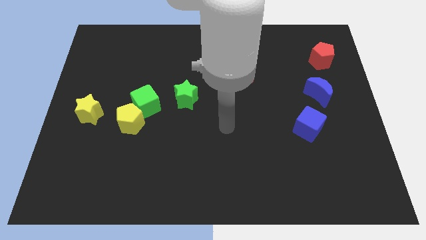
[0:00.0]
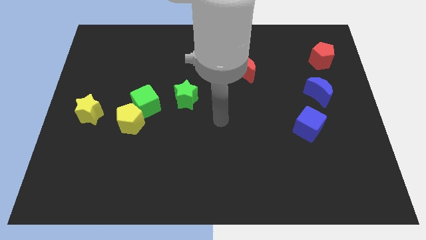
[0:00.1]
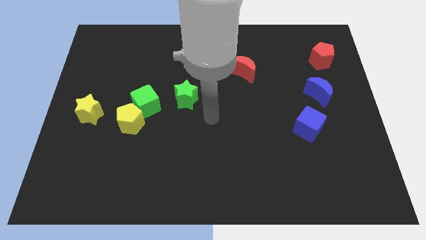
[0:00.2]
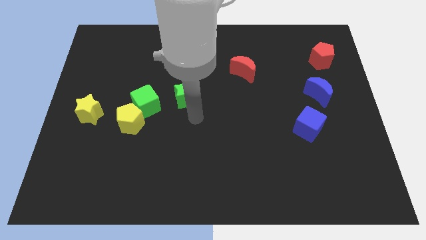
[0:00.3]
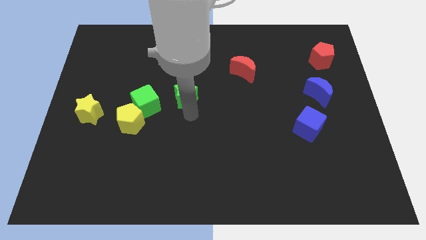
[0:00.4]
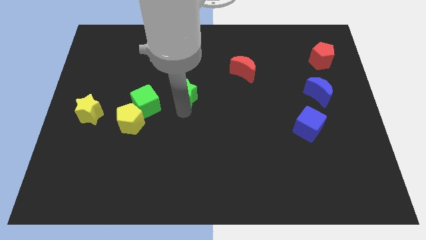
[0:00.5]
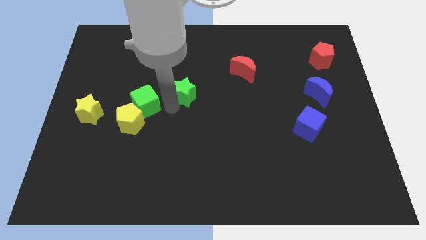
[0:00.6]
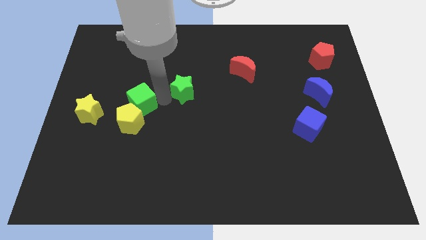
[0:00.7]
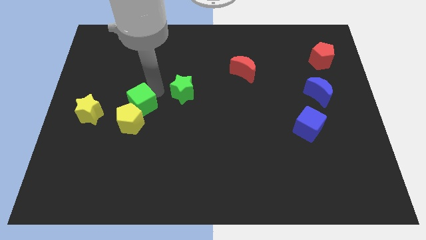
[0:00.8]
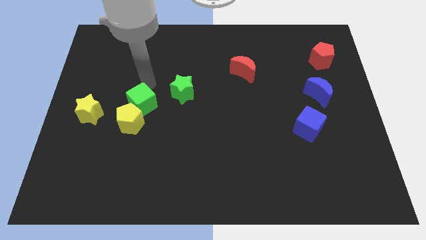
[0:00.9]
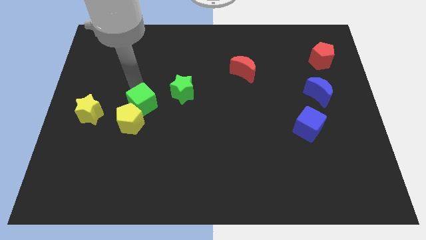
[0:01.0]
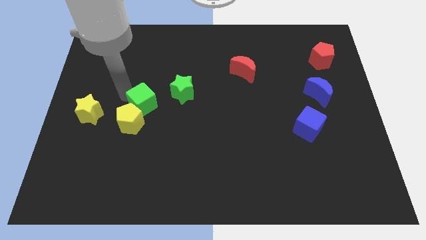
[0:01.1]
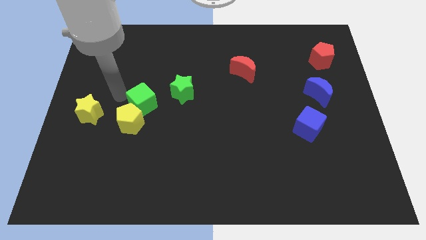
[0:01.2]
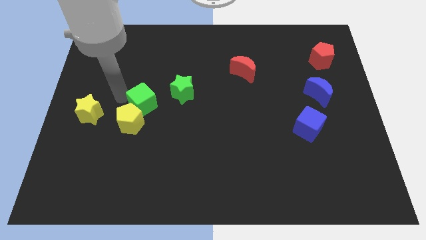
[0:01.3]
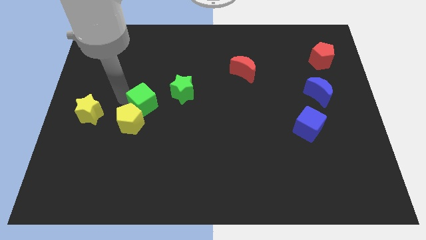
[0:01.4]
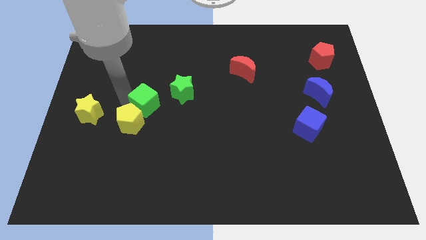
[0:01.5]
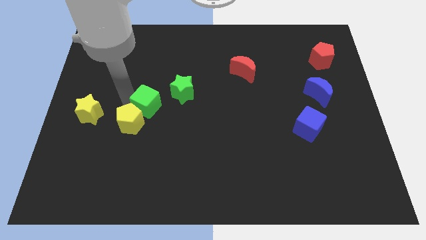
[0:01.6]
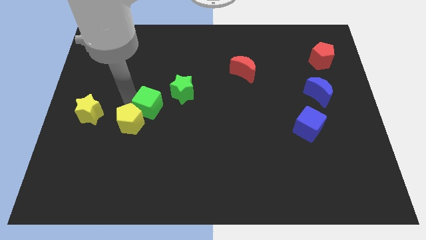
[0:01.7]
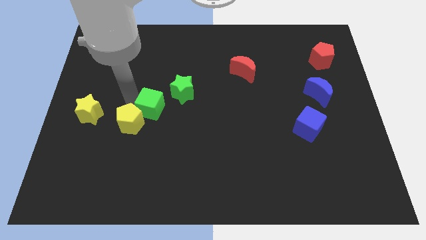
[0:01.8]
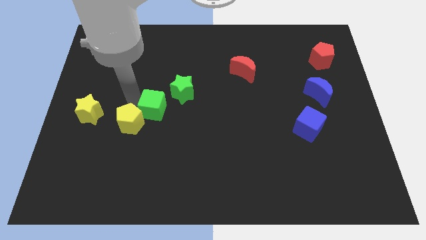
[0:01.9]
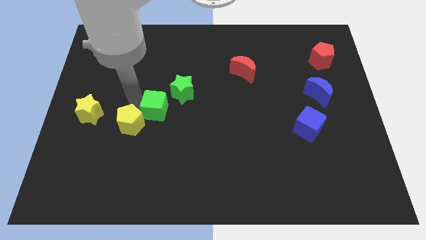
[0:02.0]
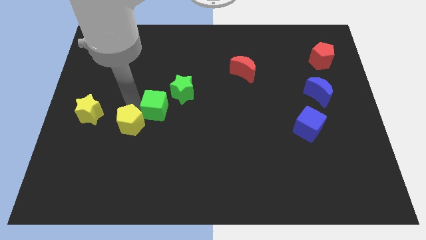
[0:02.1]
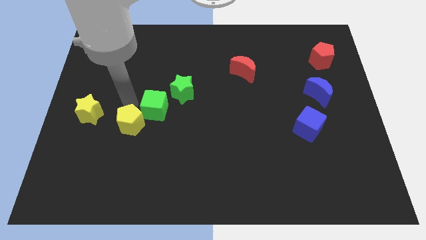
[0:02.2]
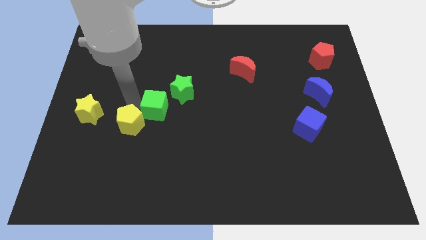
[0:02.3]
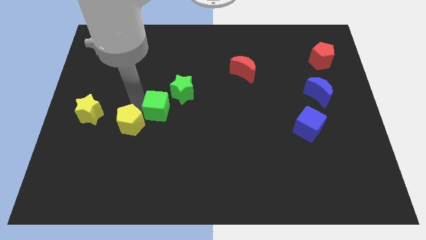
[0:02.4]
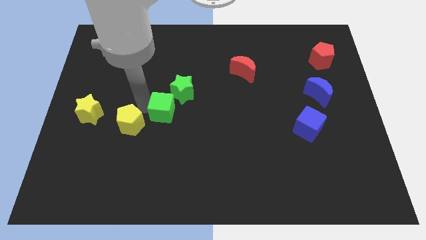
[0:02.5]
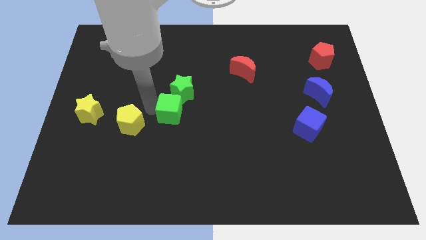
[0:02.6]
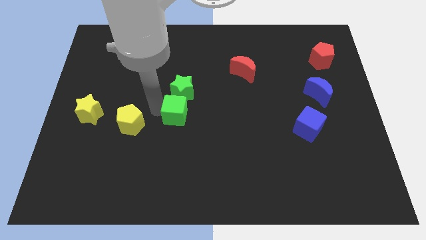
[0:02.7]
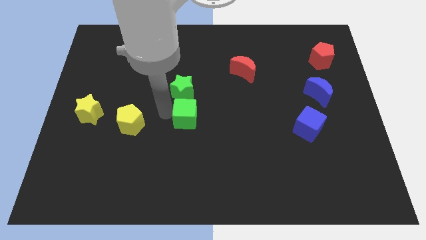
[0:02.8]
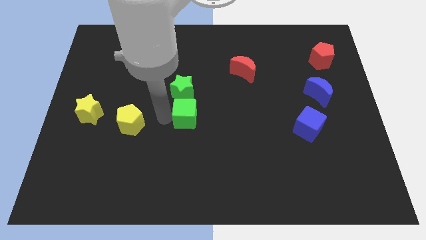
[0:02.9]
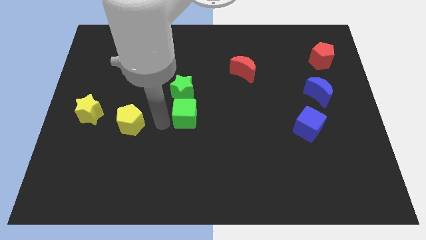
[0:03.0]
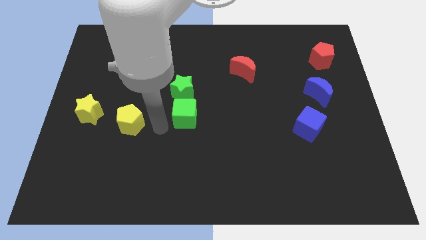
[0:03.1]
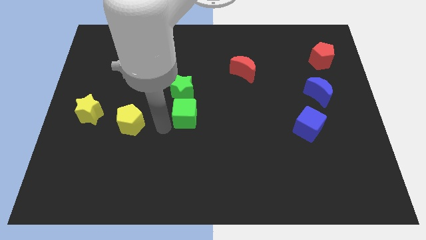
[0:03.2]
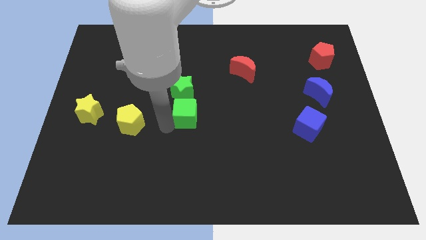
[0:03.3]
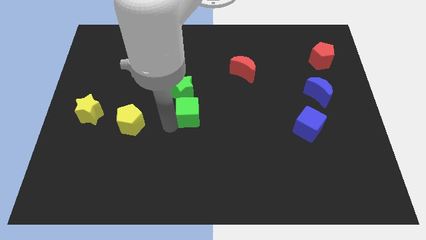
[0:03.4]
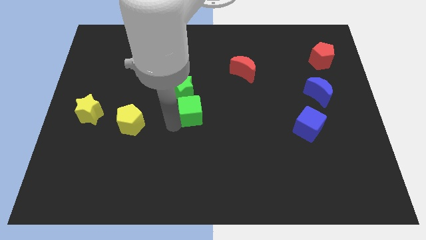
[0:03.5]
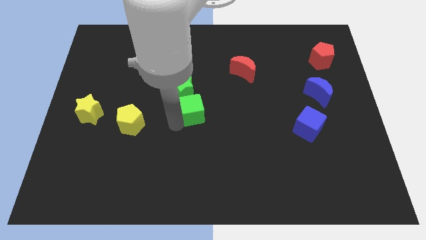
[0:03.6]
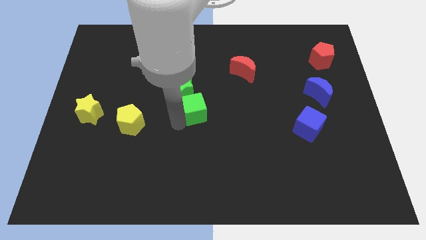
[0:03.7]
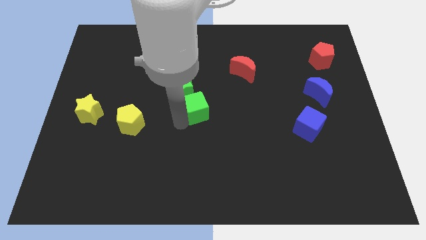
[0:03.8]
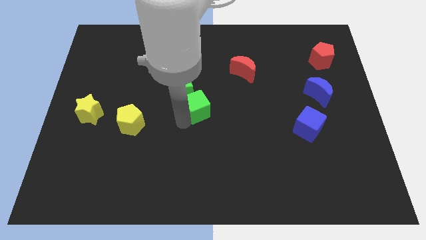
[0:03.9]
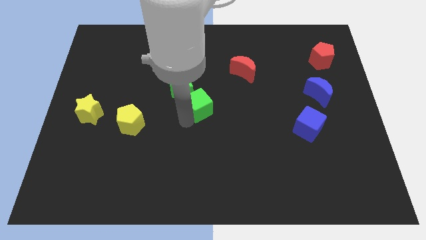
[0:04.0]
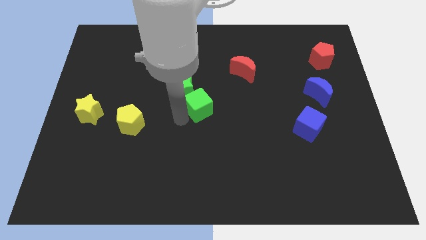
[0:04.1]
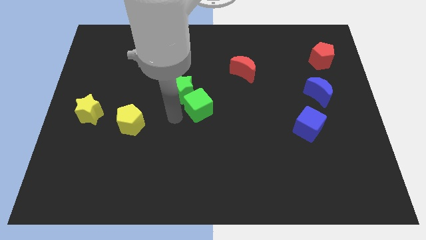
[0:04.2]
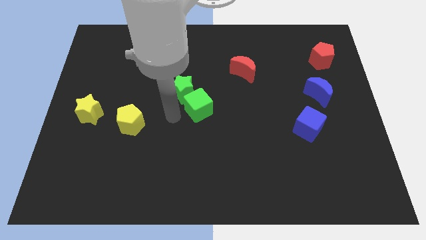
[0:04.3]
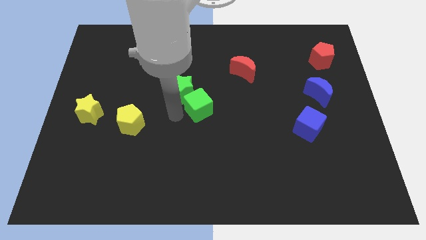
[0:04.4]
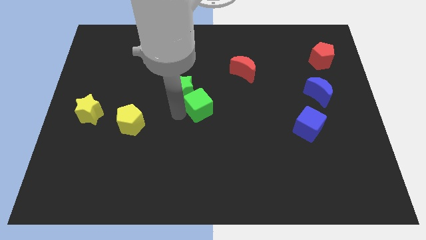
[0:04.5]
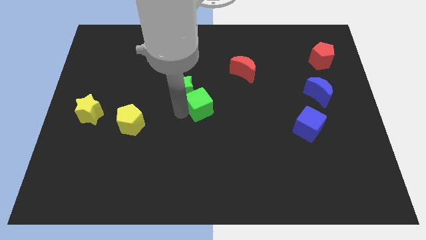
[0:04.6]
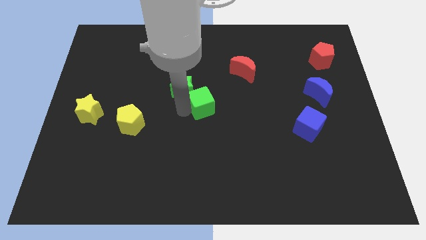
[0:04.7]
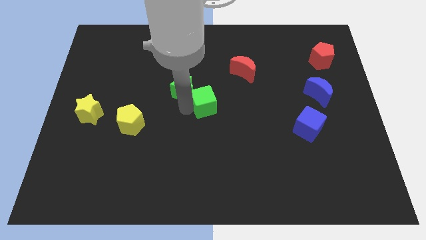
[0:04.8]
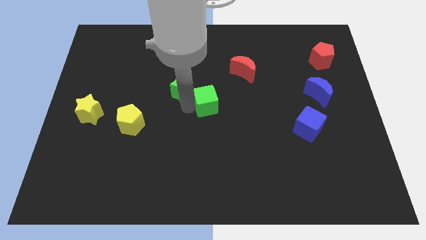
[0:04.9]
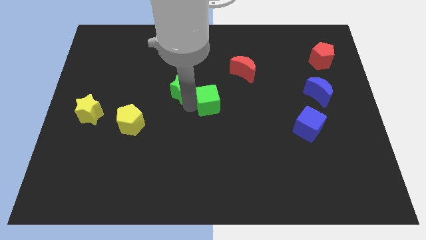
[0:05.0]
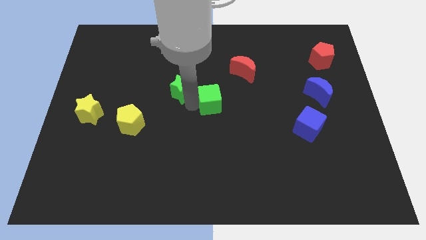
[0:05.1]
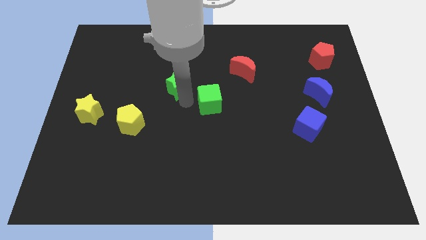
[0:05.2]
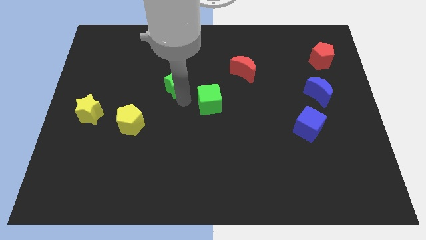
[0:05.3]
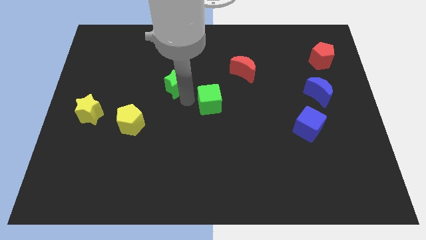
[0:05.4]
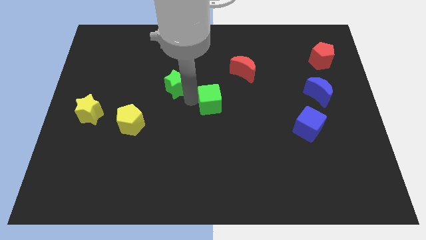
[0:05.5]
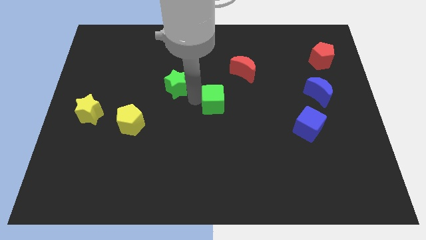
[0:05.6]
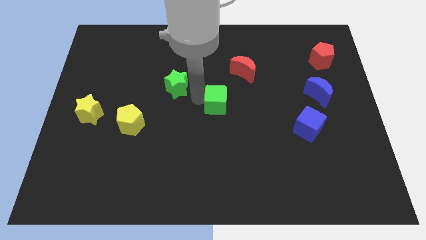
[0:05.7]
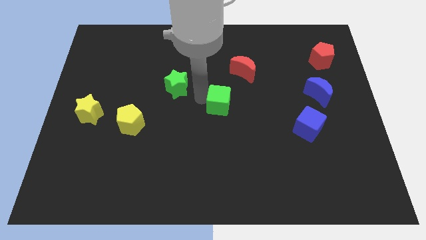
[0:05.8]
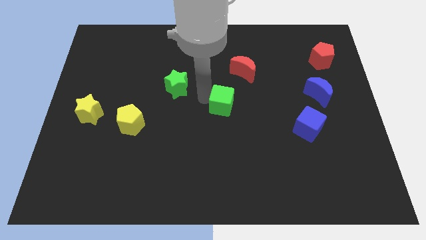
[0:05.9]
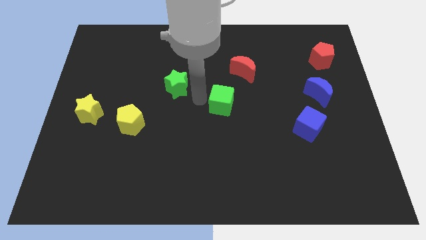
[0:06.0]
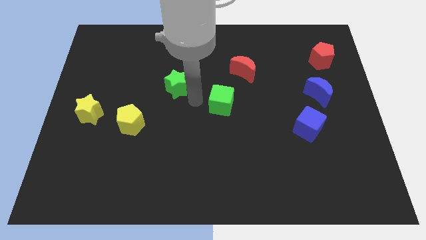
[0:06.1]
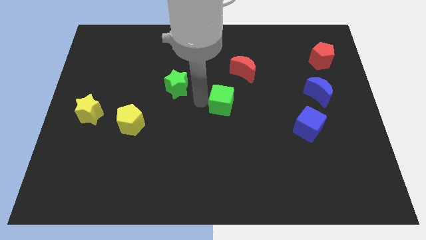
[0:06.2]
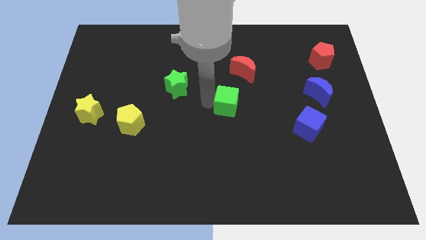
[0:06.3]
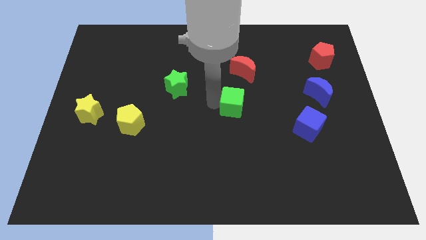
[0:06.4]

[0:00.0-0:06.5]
push the green cube right

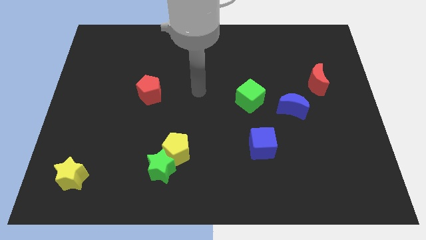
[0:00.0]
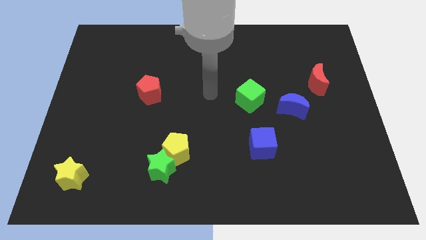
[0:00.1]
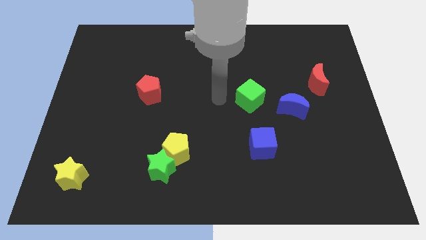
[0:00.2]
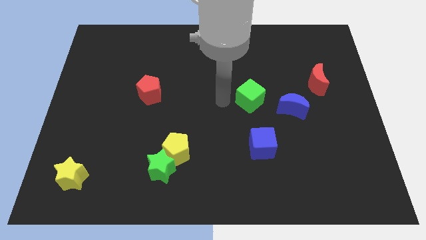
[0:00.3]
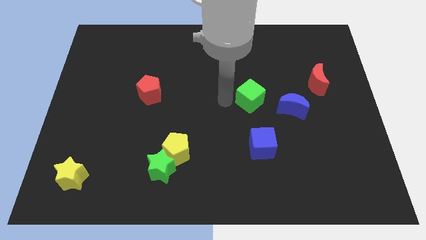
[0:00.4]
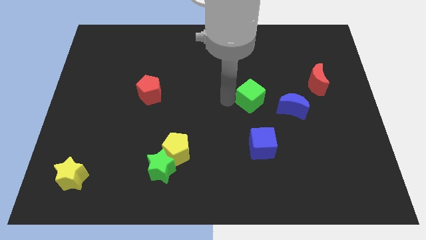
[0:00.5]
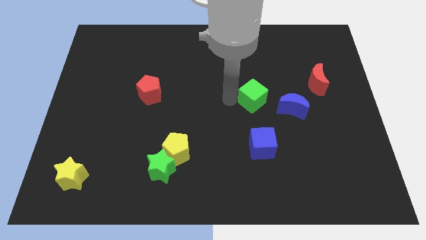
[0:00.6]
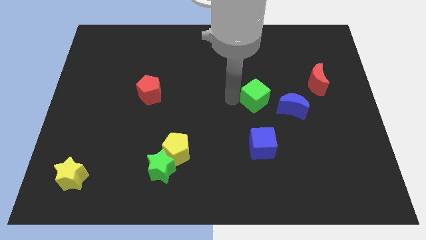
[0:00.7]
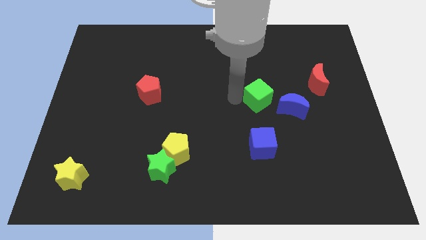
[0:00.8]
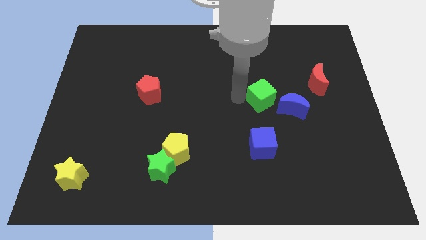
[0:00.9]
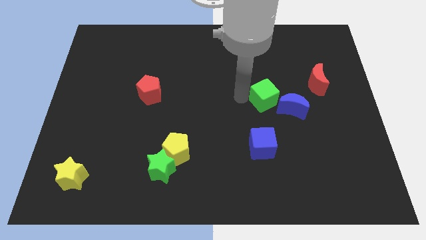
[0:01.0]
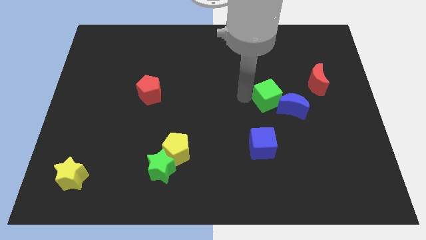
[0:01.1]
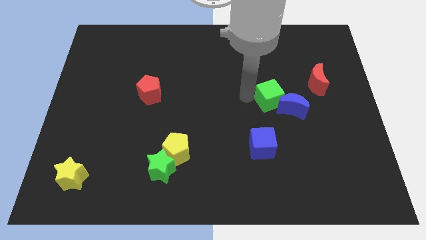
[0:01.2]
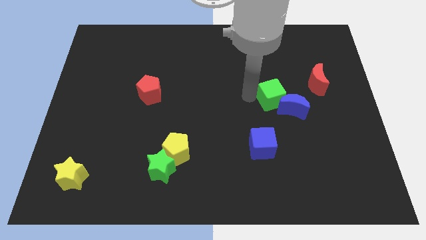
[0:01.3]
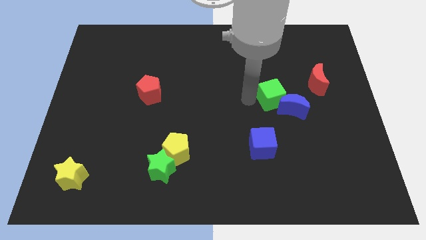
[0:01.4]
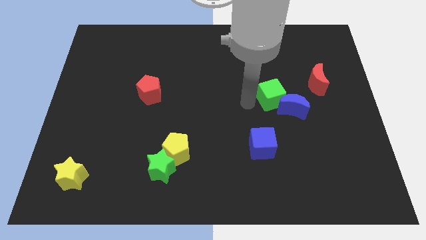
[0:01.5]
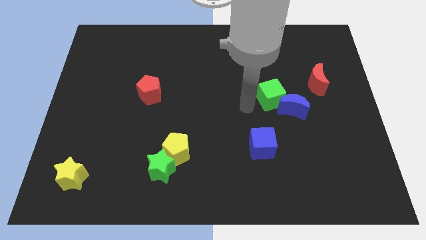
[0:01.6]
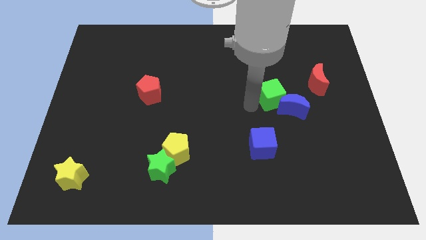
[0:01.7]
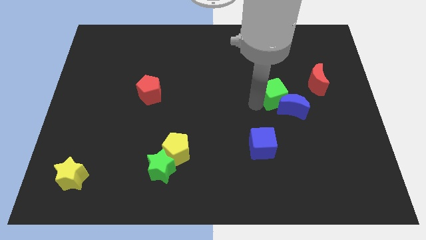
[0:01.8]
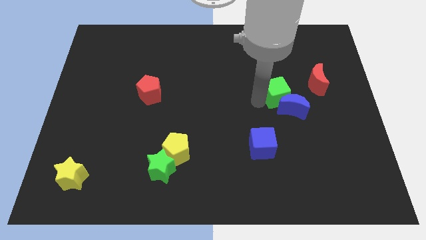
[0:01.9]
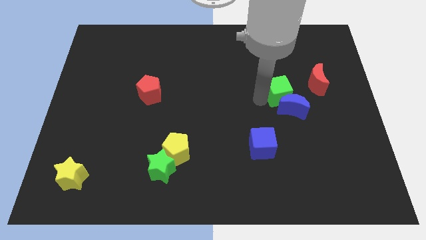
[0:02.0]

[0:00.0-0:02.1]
slide the green cube somewhat right

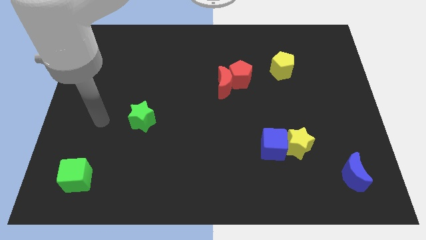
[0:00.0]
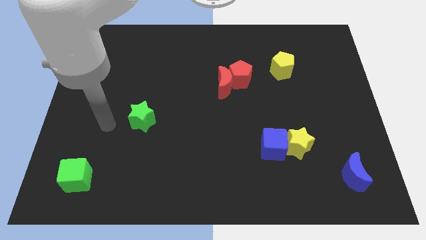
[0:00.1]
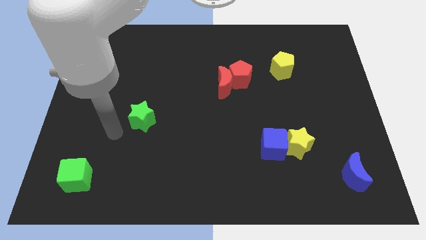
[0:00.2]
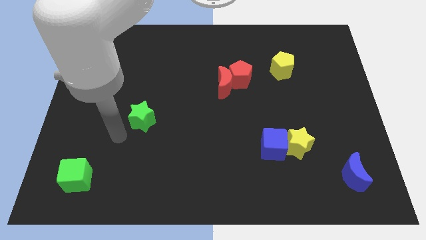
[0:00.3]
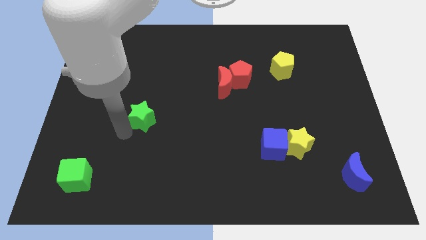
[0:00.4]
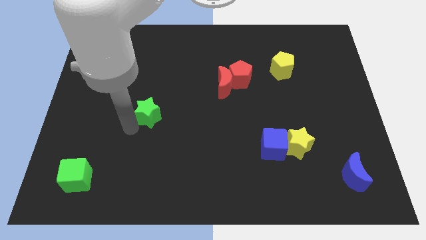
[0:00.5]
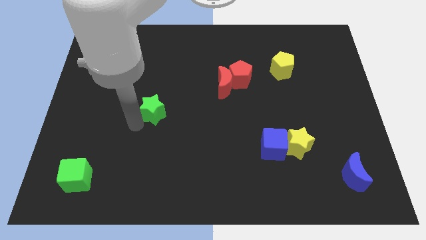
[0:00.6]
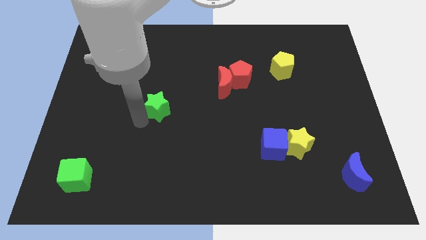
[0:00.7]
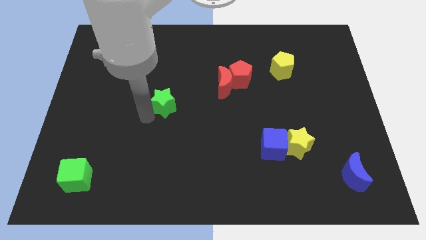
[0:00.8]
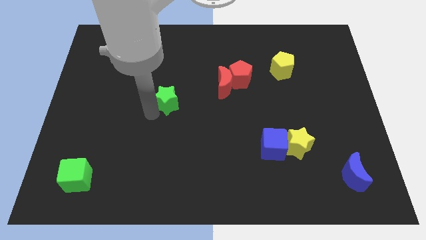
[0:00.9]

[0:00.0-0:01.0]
push the green star up and to the right a little
